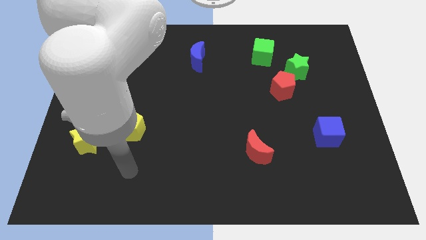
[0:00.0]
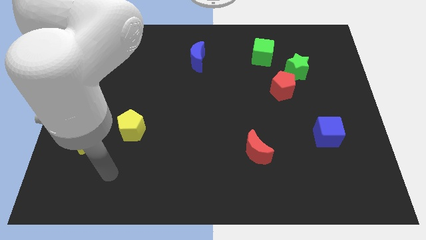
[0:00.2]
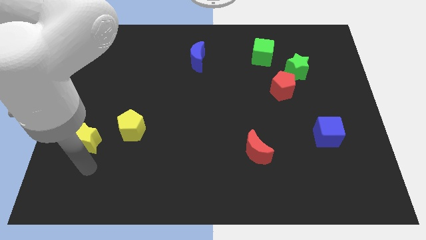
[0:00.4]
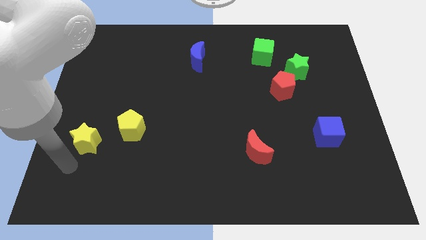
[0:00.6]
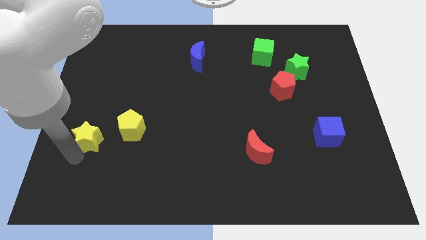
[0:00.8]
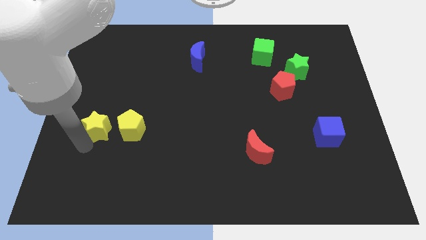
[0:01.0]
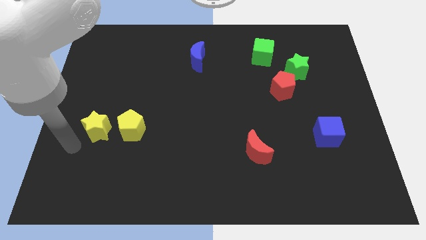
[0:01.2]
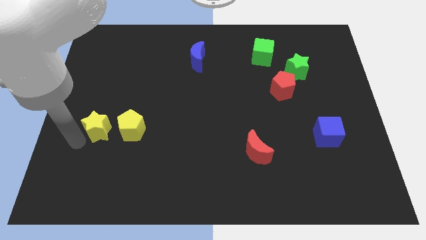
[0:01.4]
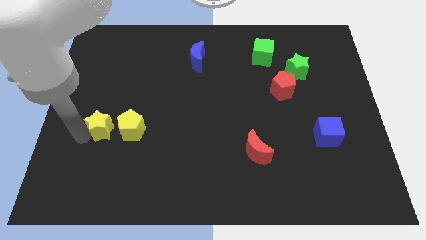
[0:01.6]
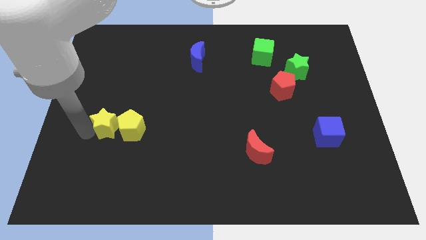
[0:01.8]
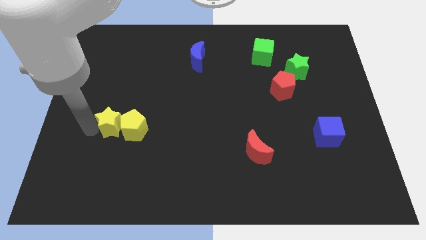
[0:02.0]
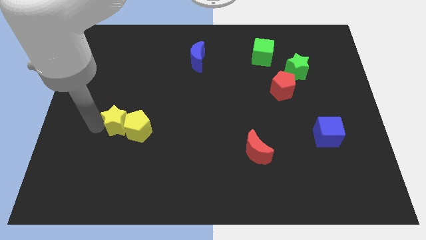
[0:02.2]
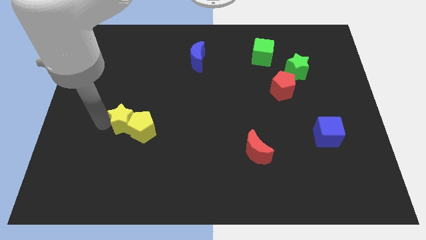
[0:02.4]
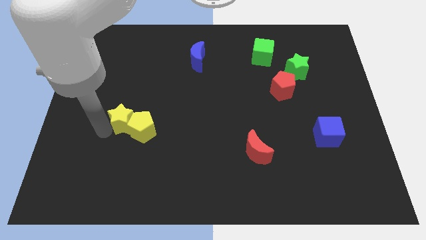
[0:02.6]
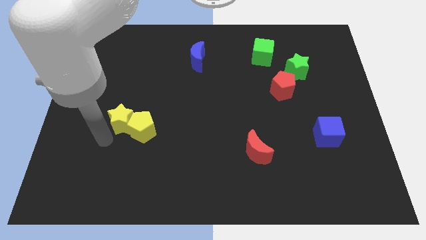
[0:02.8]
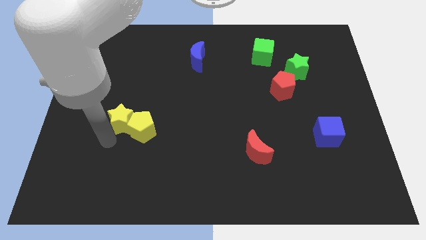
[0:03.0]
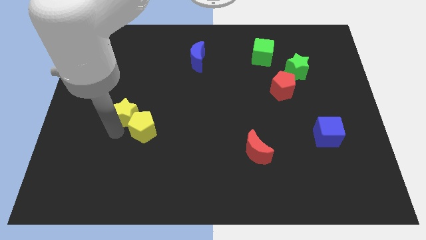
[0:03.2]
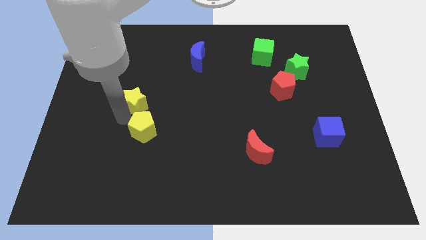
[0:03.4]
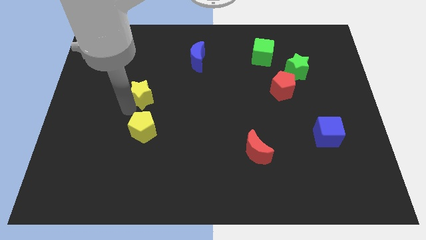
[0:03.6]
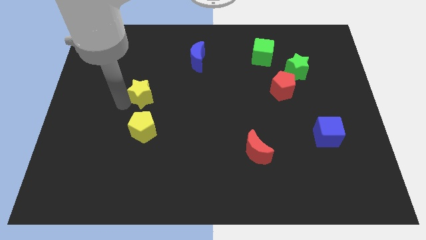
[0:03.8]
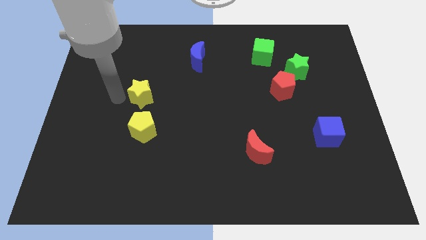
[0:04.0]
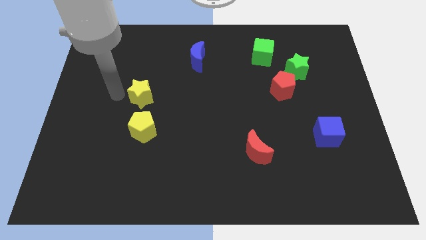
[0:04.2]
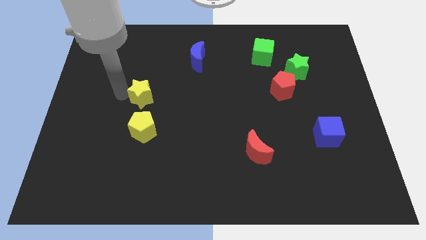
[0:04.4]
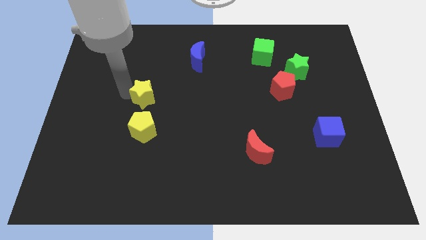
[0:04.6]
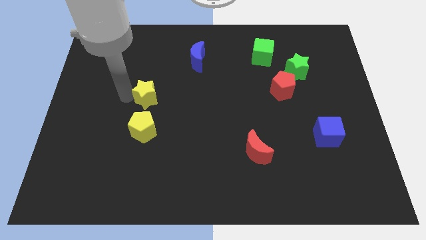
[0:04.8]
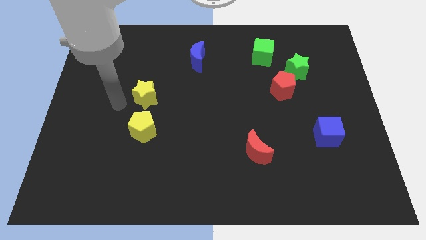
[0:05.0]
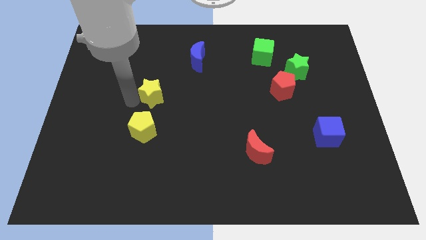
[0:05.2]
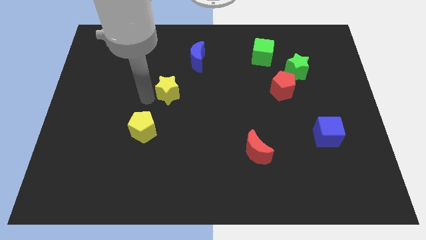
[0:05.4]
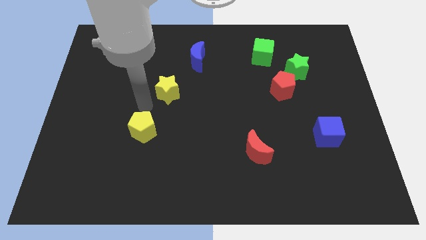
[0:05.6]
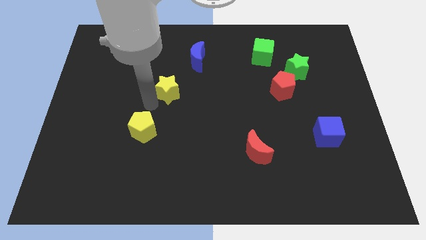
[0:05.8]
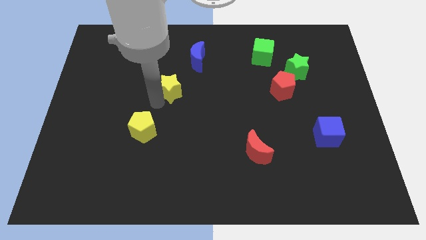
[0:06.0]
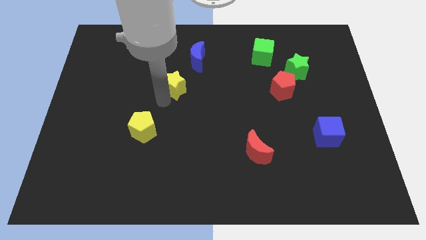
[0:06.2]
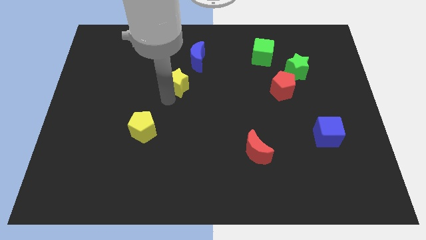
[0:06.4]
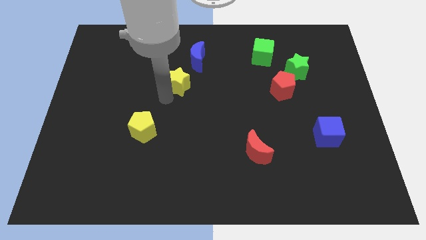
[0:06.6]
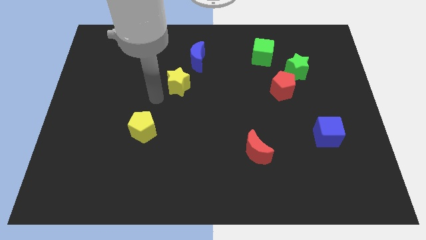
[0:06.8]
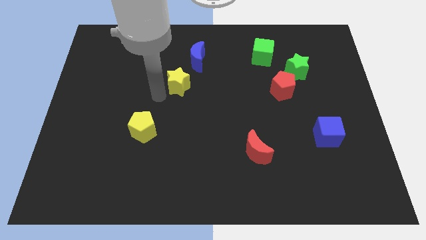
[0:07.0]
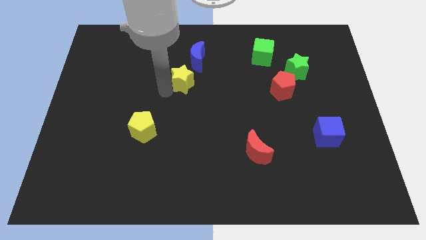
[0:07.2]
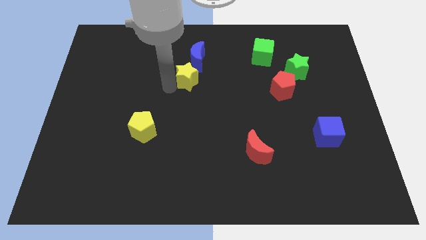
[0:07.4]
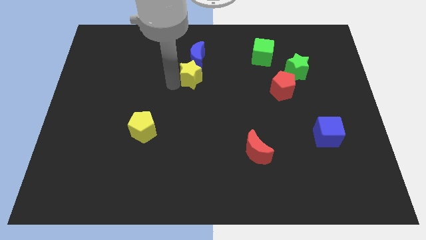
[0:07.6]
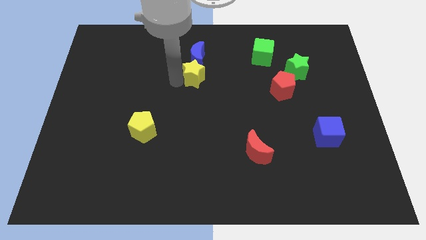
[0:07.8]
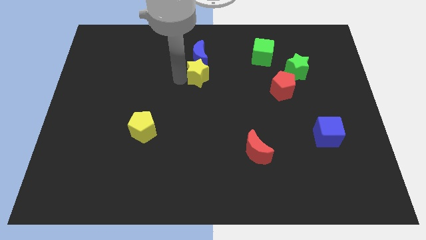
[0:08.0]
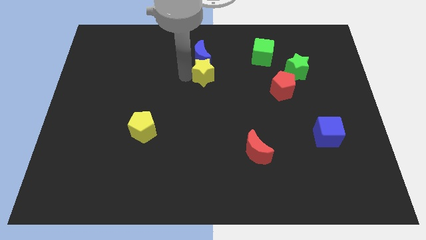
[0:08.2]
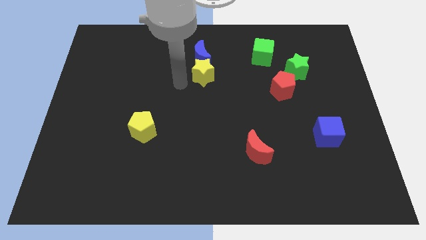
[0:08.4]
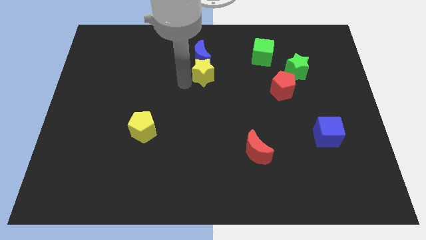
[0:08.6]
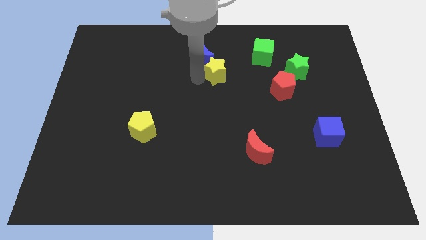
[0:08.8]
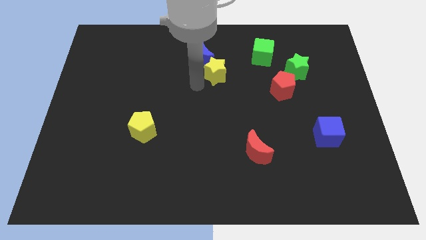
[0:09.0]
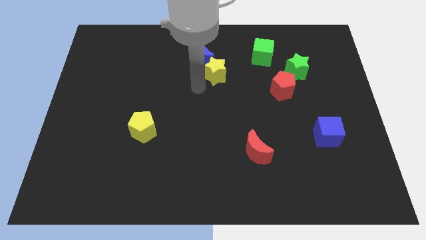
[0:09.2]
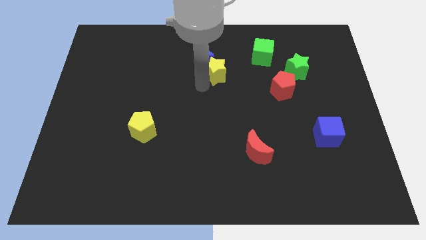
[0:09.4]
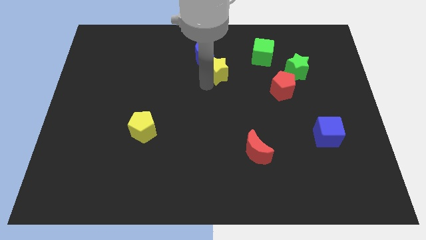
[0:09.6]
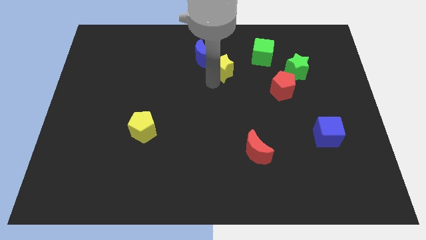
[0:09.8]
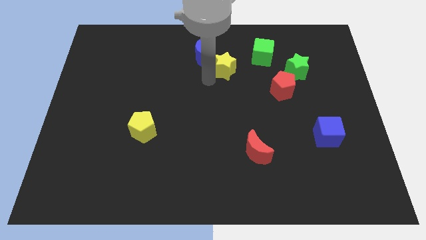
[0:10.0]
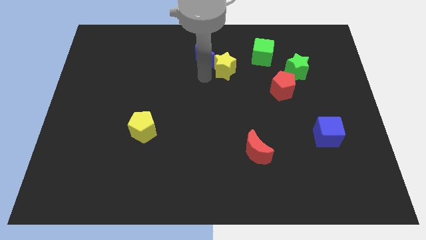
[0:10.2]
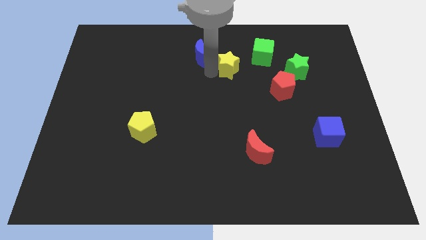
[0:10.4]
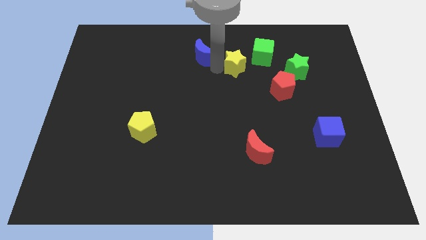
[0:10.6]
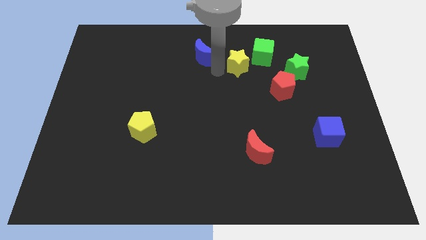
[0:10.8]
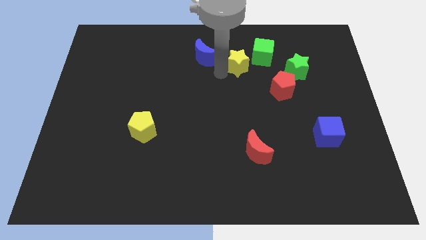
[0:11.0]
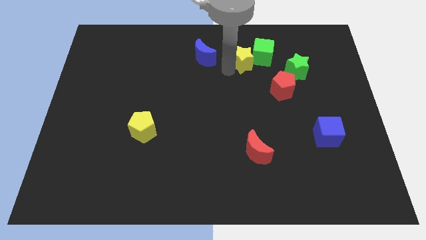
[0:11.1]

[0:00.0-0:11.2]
push the yellow star to the green cube

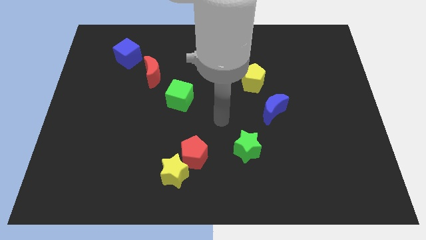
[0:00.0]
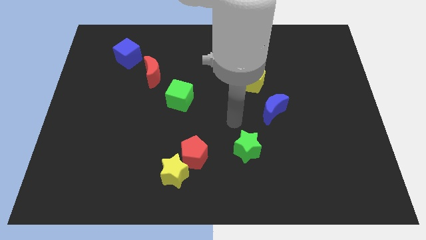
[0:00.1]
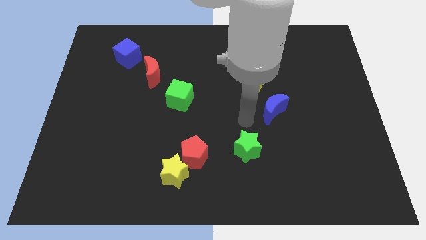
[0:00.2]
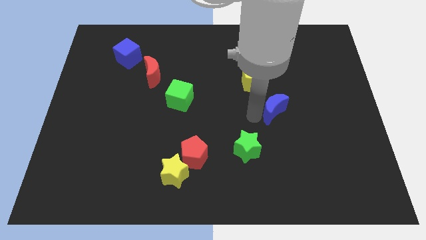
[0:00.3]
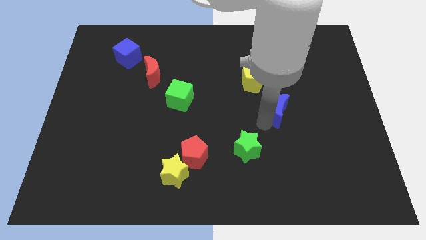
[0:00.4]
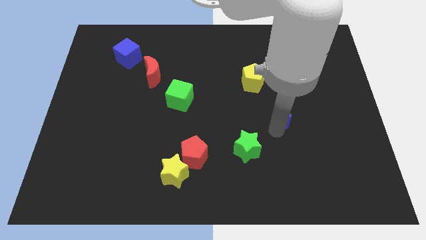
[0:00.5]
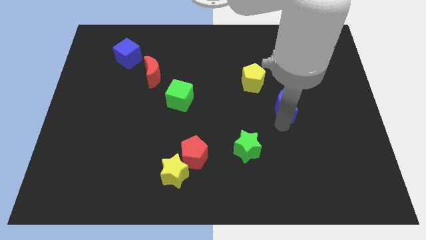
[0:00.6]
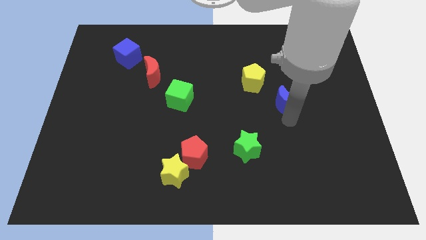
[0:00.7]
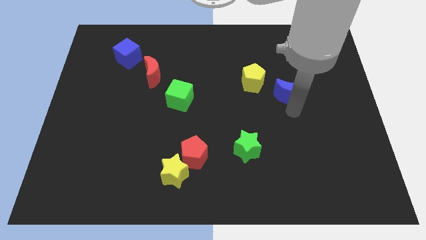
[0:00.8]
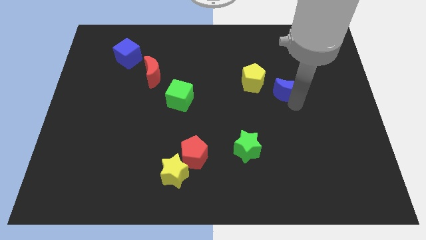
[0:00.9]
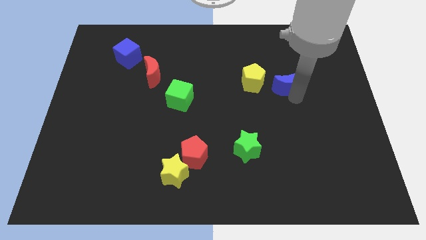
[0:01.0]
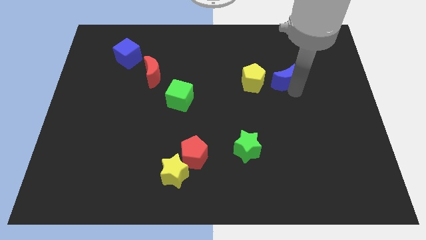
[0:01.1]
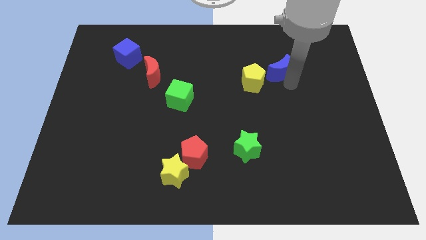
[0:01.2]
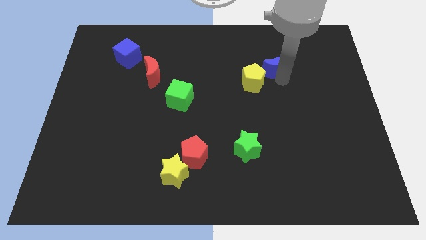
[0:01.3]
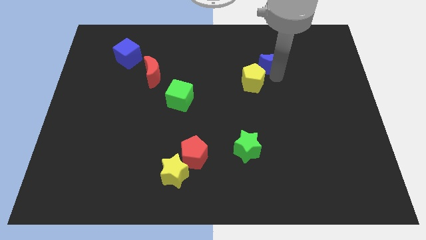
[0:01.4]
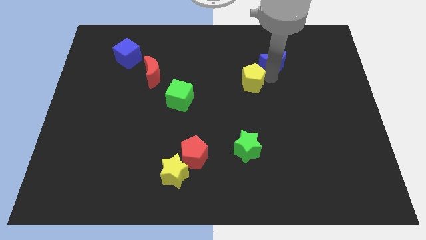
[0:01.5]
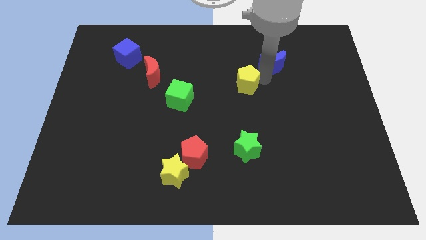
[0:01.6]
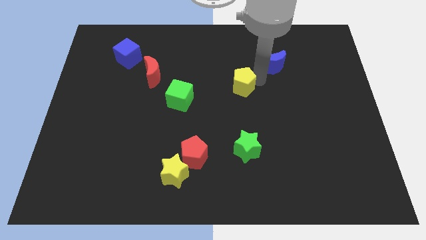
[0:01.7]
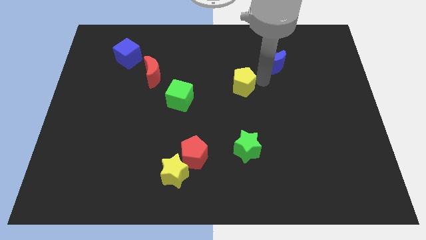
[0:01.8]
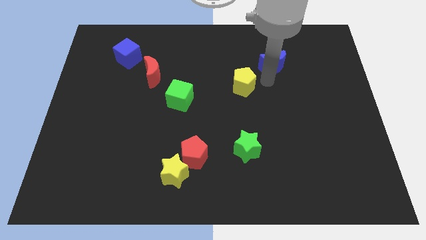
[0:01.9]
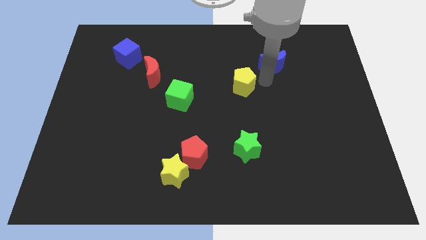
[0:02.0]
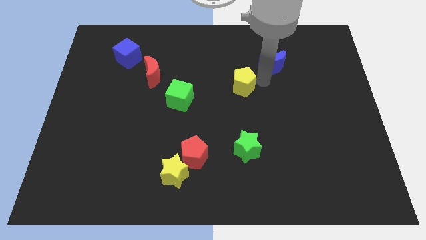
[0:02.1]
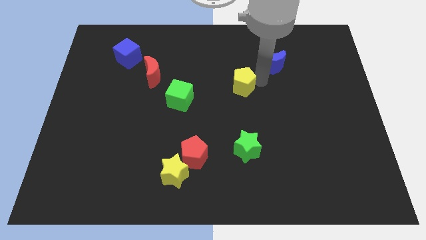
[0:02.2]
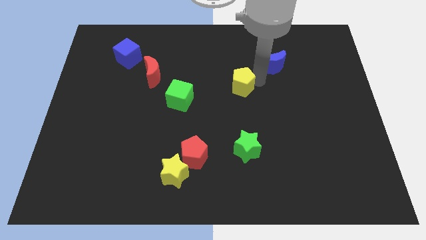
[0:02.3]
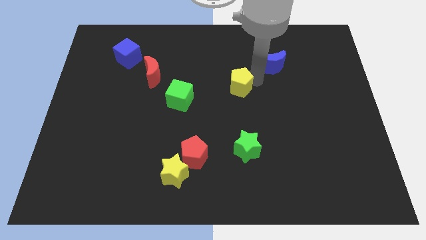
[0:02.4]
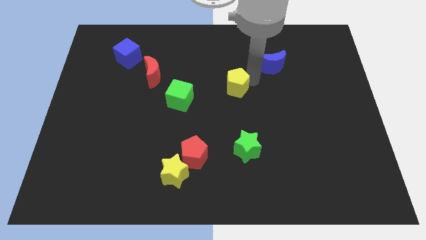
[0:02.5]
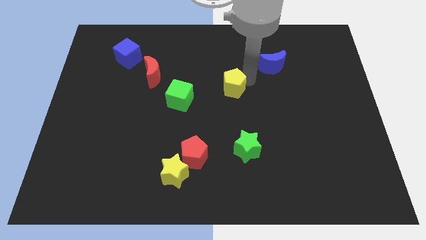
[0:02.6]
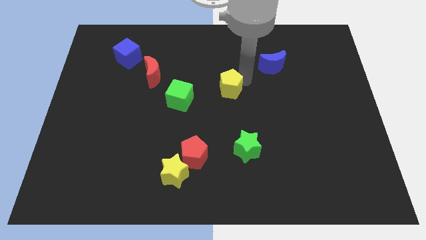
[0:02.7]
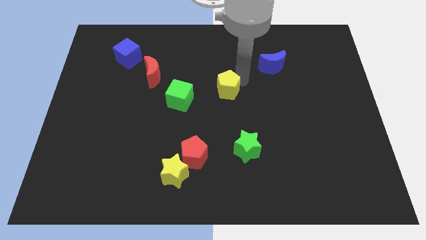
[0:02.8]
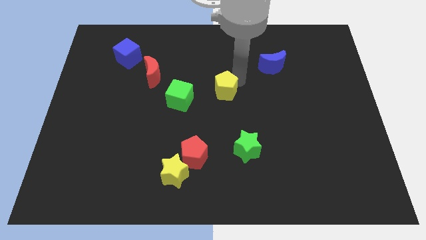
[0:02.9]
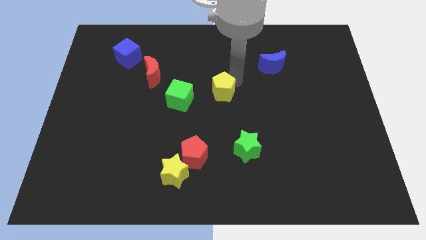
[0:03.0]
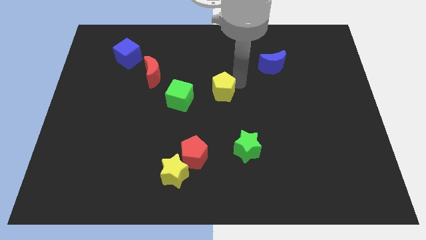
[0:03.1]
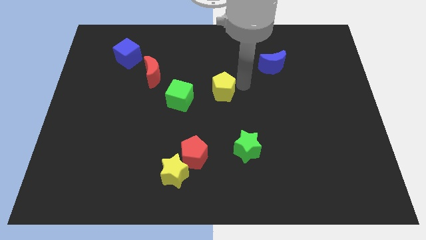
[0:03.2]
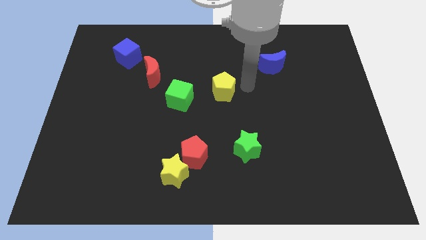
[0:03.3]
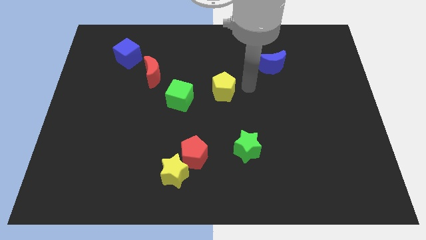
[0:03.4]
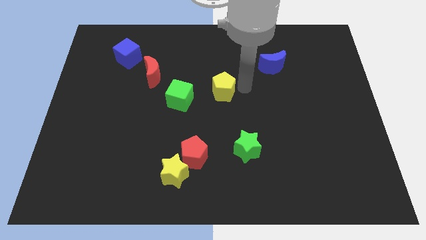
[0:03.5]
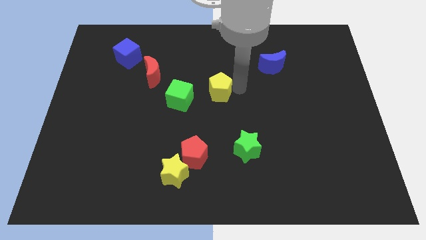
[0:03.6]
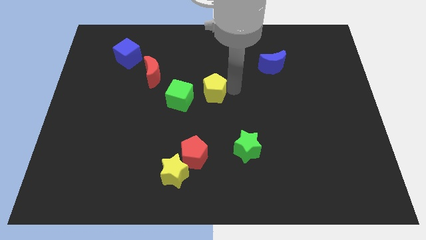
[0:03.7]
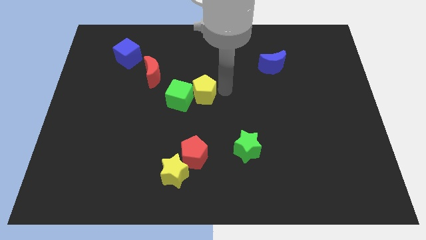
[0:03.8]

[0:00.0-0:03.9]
put the yellow pentagon next to the green cube
